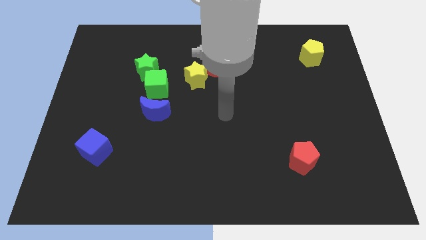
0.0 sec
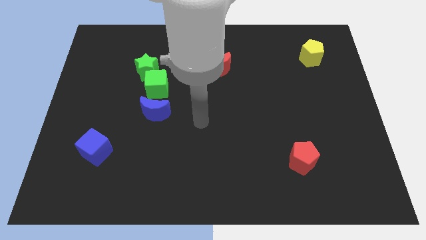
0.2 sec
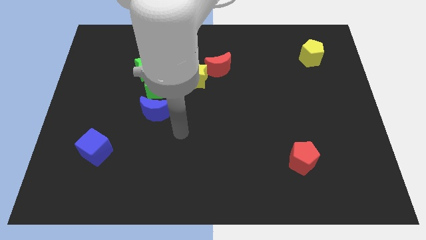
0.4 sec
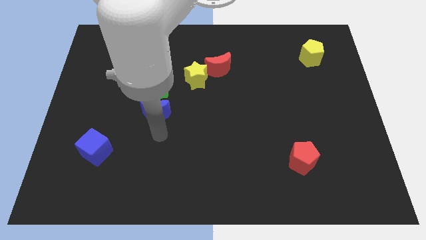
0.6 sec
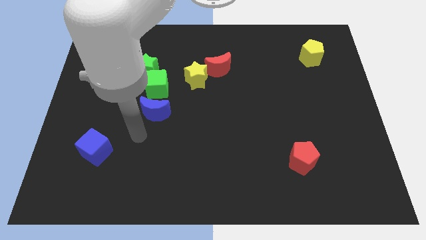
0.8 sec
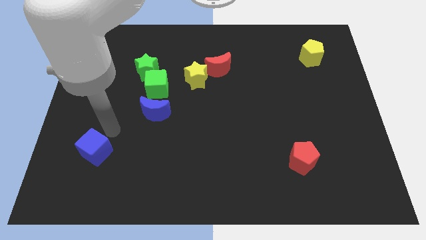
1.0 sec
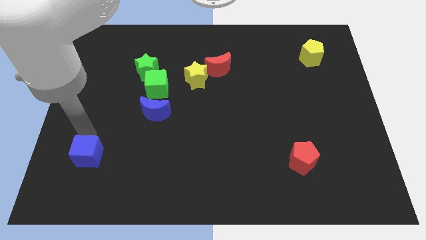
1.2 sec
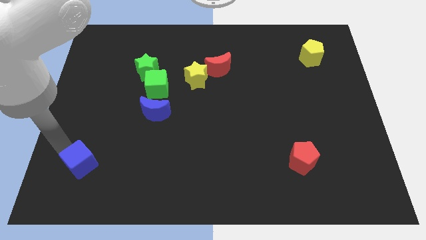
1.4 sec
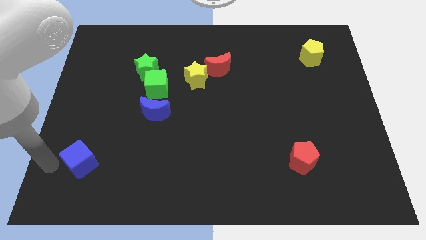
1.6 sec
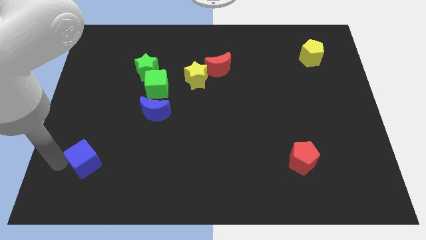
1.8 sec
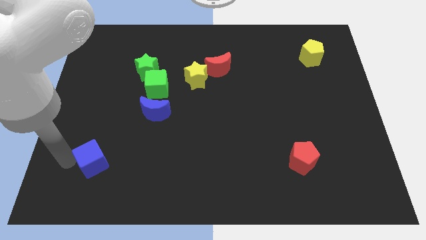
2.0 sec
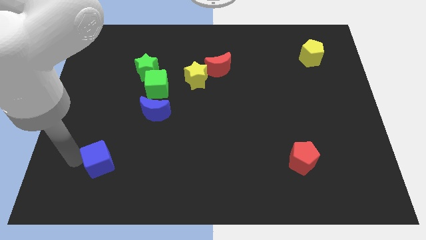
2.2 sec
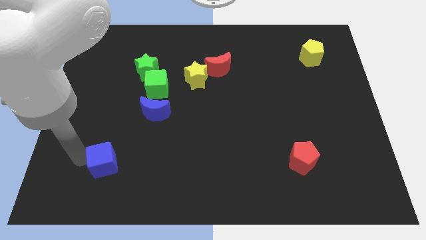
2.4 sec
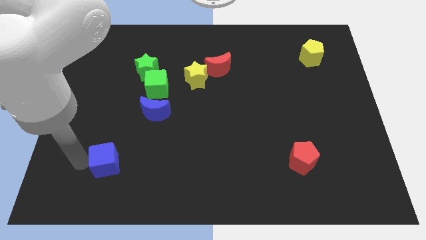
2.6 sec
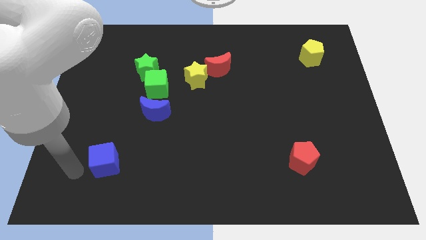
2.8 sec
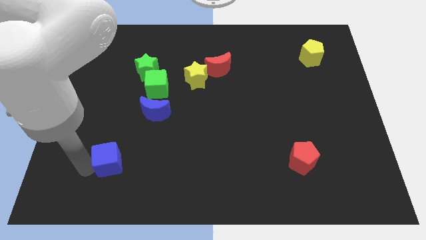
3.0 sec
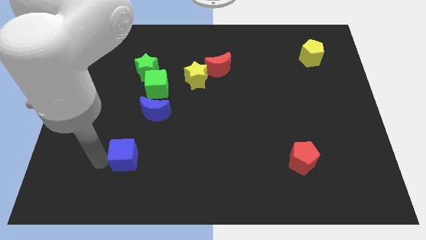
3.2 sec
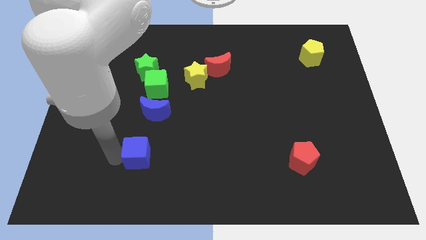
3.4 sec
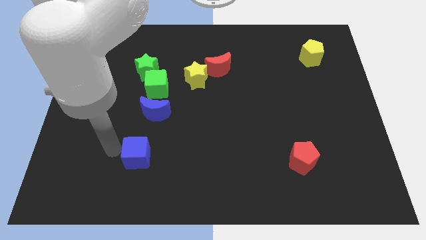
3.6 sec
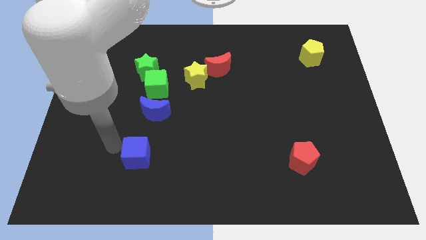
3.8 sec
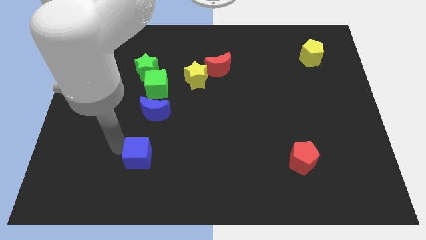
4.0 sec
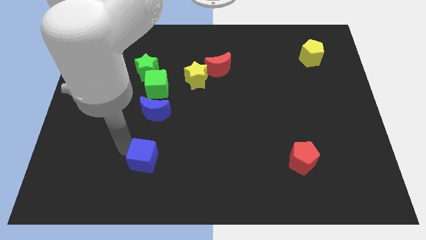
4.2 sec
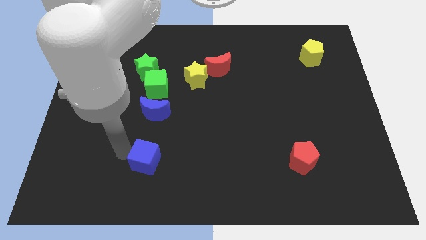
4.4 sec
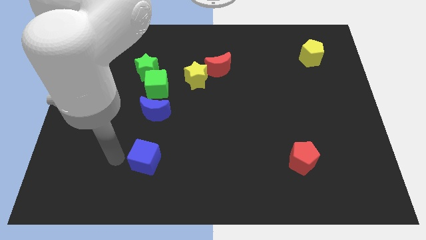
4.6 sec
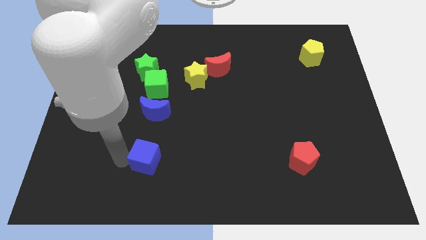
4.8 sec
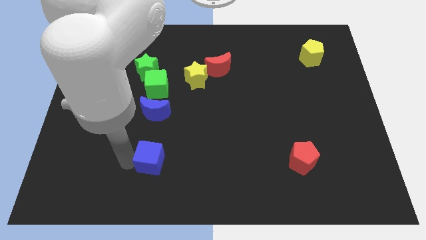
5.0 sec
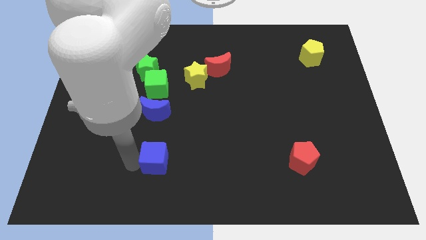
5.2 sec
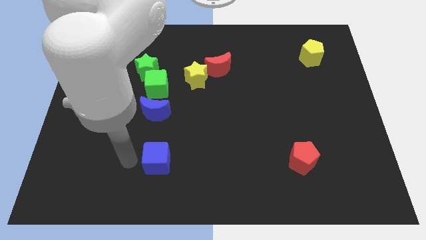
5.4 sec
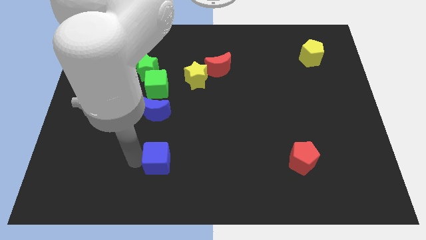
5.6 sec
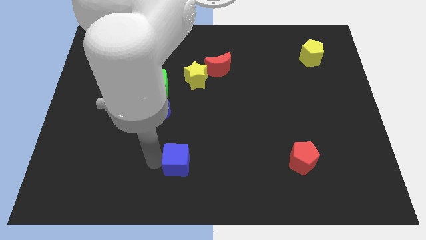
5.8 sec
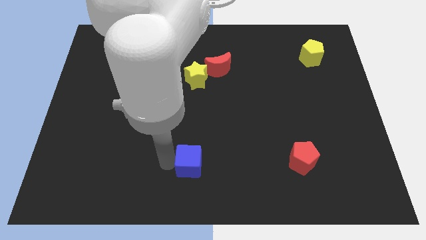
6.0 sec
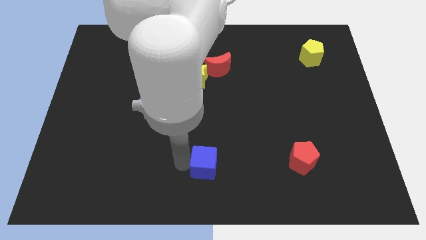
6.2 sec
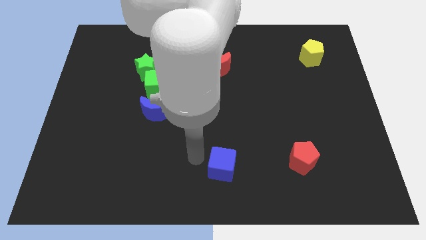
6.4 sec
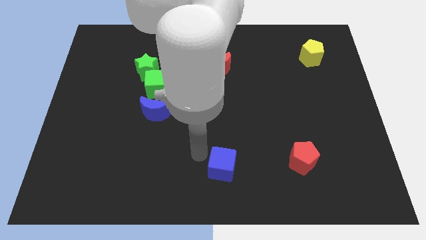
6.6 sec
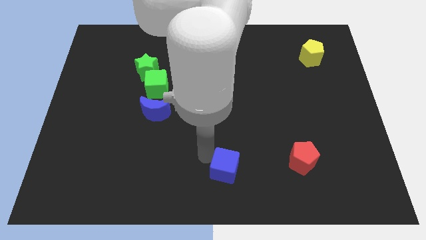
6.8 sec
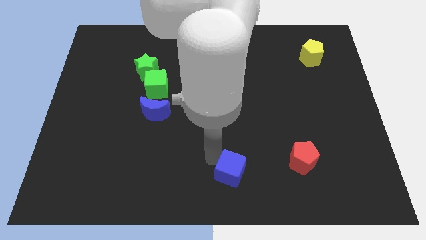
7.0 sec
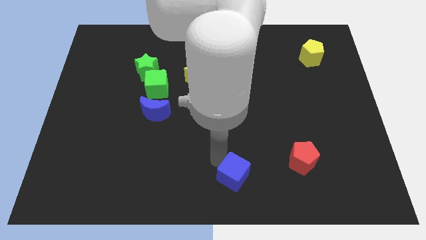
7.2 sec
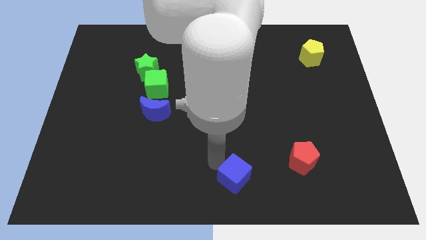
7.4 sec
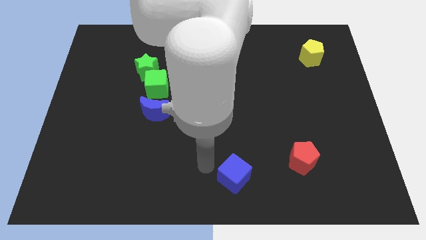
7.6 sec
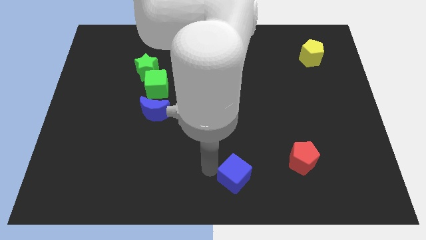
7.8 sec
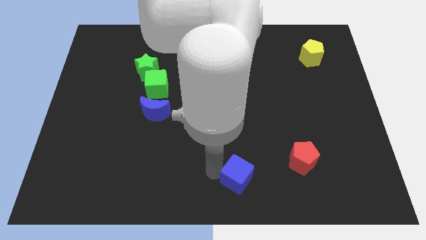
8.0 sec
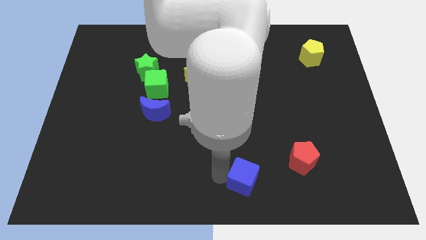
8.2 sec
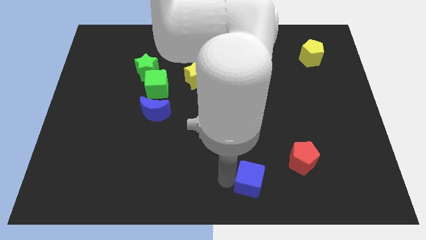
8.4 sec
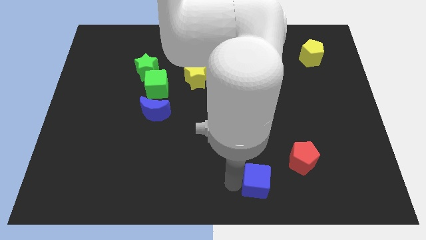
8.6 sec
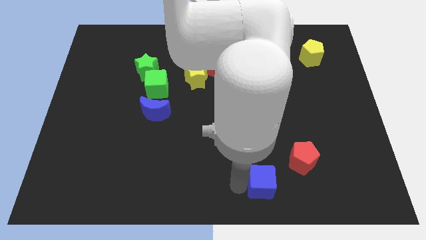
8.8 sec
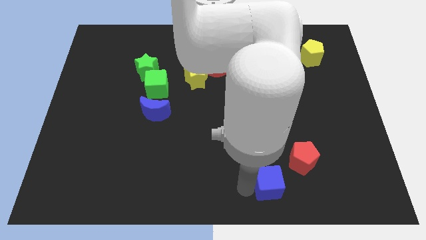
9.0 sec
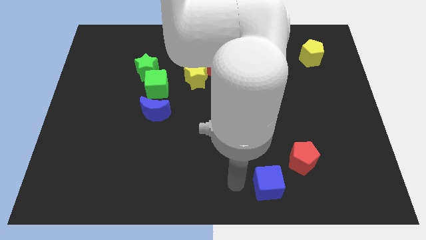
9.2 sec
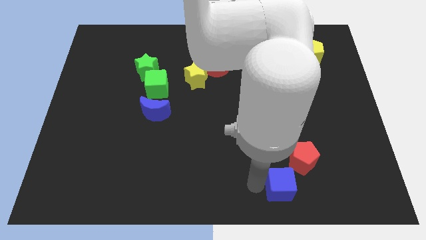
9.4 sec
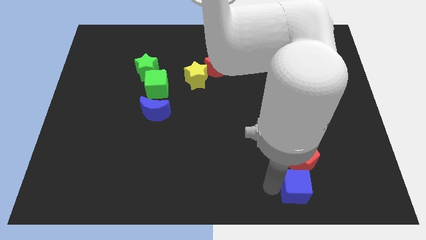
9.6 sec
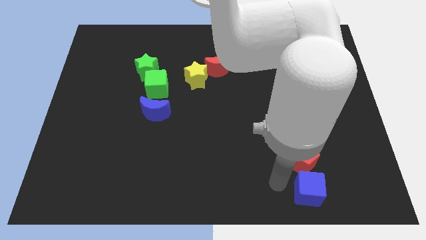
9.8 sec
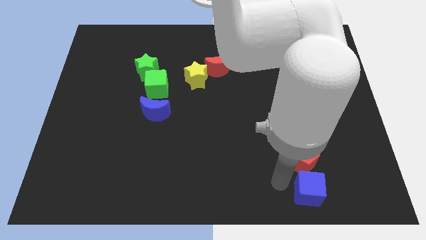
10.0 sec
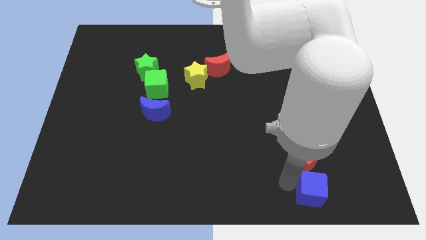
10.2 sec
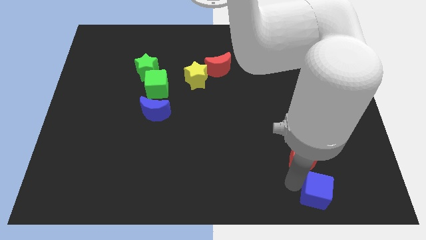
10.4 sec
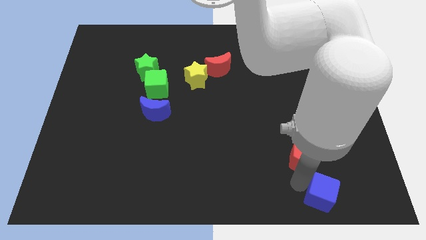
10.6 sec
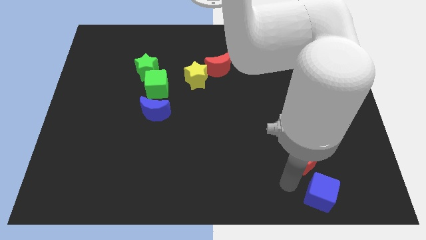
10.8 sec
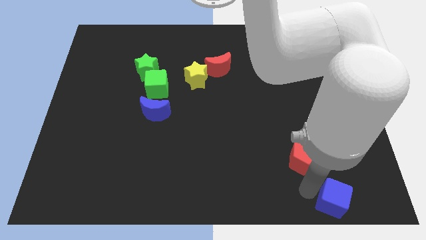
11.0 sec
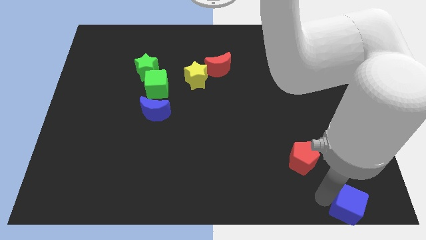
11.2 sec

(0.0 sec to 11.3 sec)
slide the blue cube to the bottom right

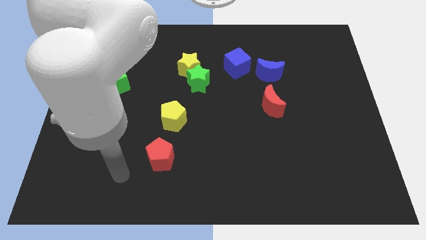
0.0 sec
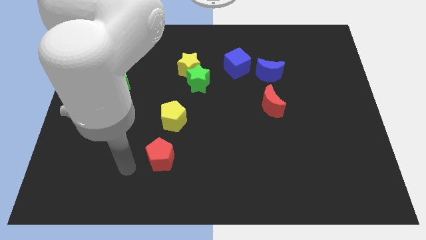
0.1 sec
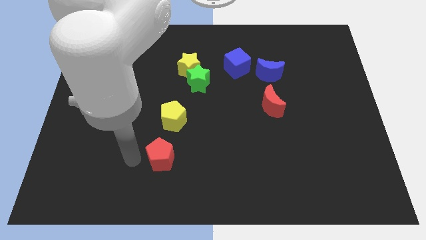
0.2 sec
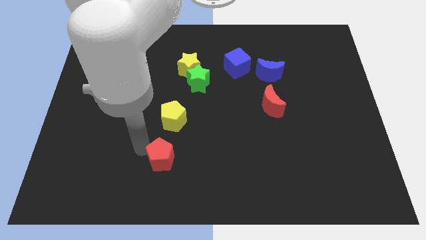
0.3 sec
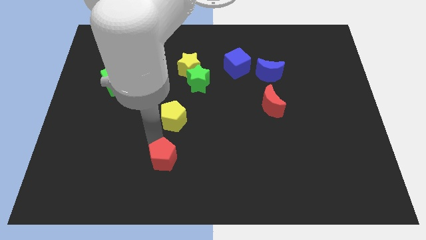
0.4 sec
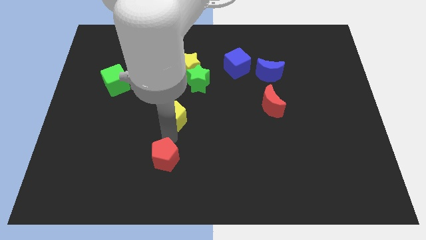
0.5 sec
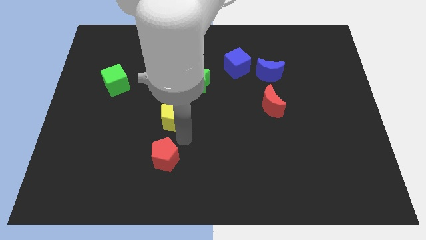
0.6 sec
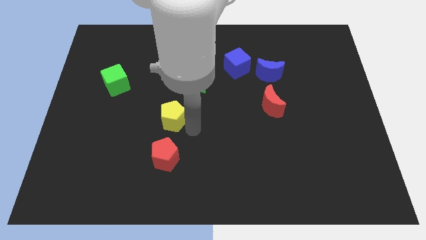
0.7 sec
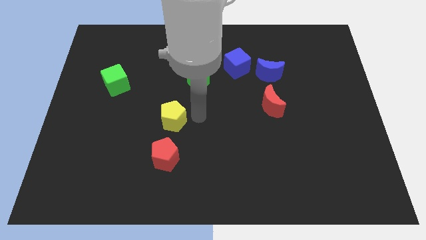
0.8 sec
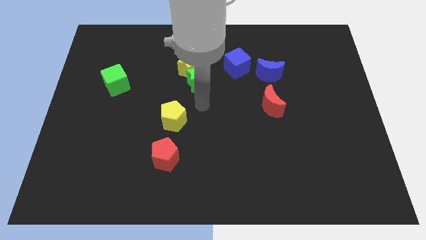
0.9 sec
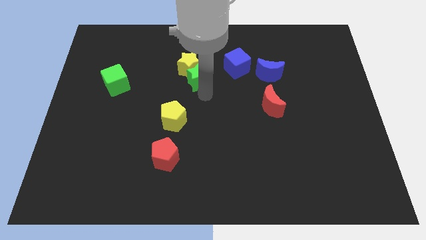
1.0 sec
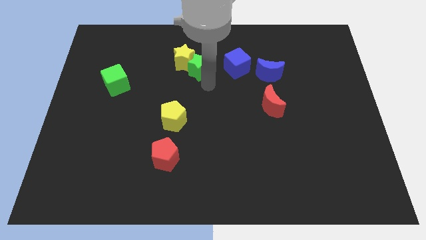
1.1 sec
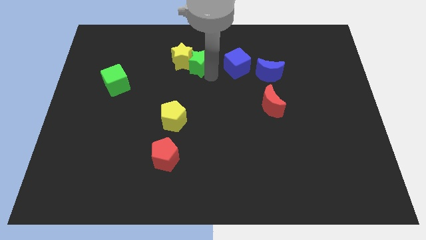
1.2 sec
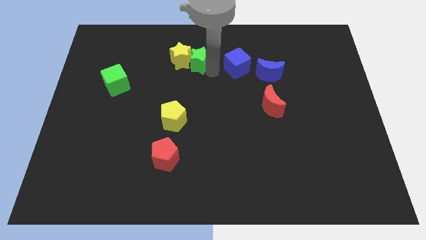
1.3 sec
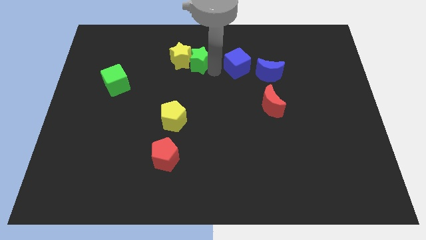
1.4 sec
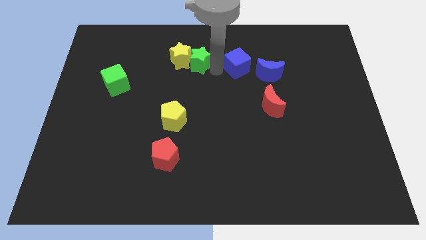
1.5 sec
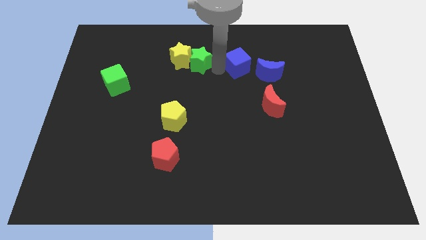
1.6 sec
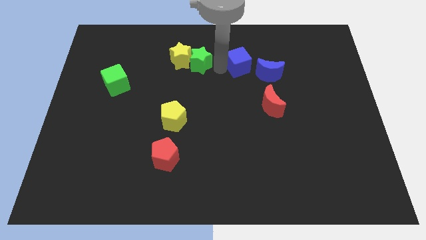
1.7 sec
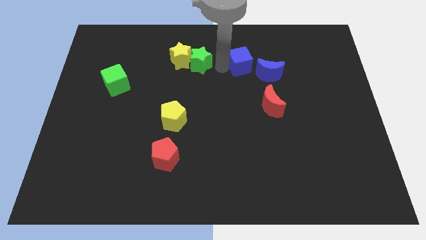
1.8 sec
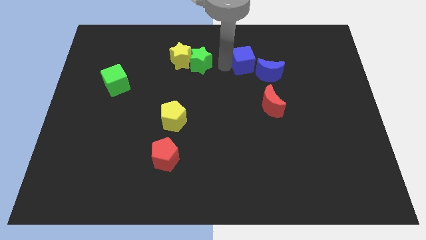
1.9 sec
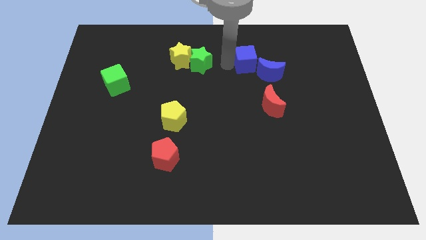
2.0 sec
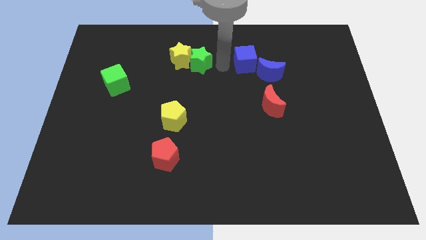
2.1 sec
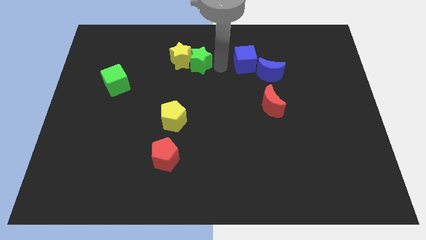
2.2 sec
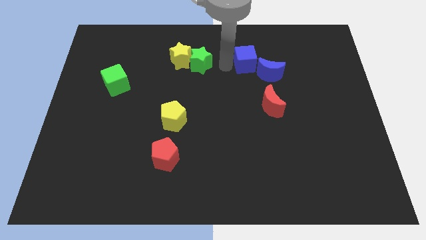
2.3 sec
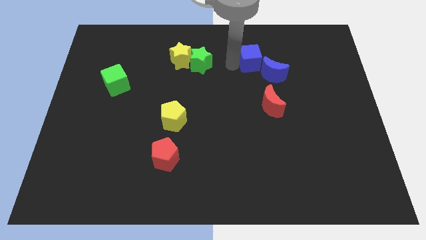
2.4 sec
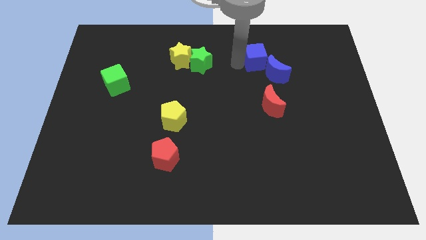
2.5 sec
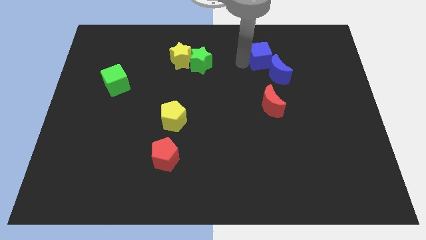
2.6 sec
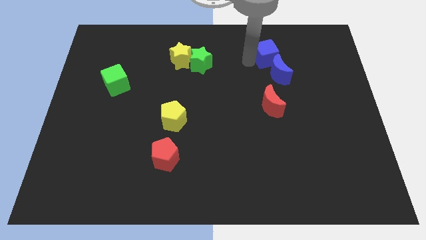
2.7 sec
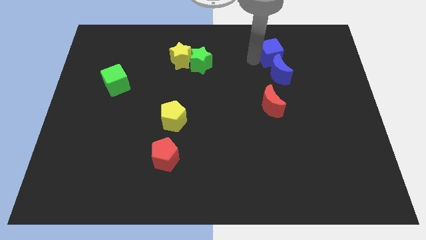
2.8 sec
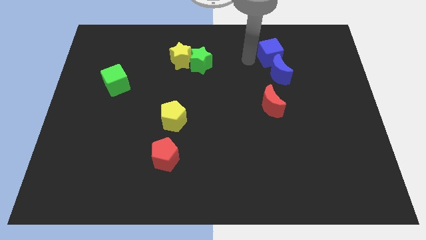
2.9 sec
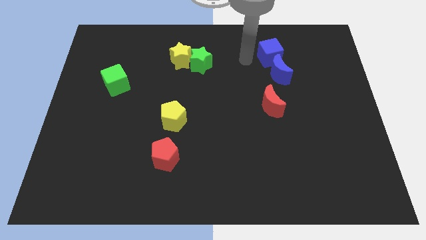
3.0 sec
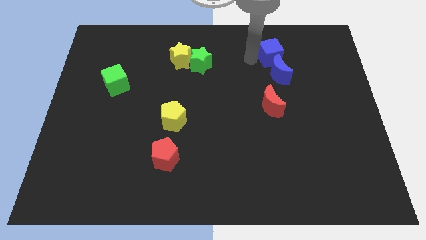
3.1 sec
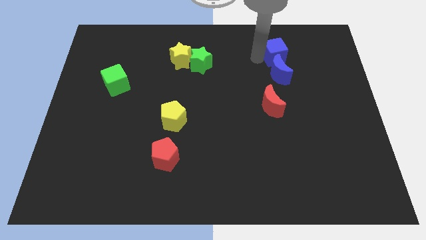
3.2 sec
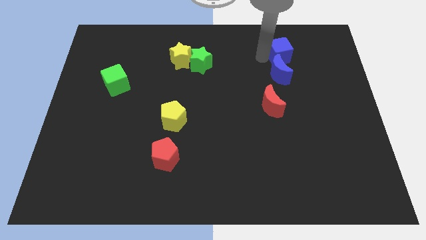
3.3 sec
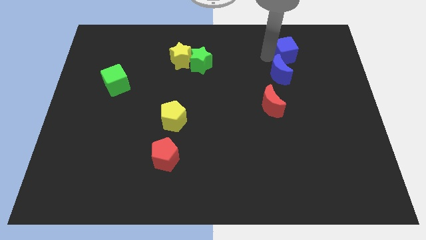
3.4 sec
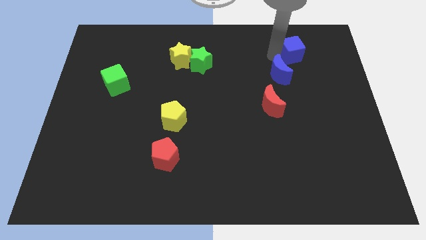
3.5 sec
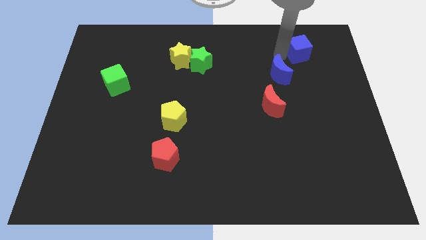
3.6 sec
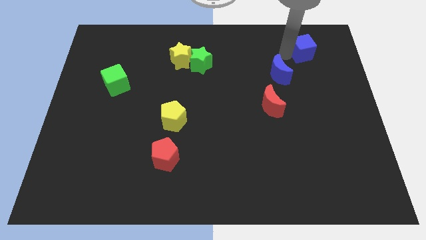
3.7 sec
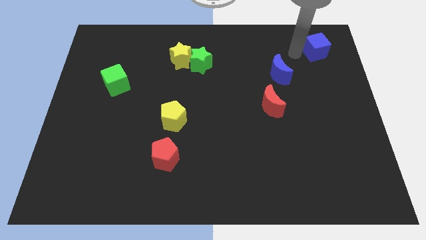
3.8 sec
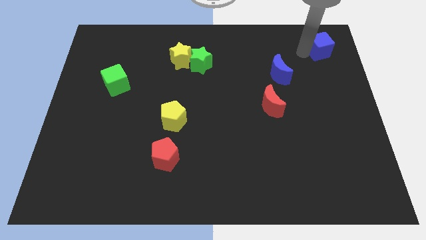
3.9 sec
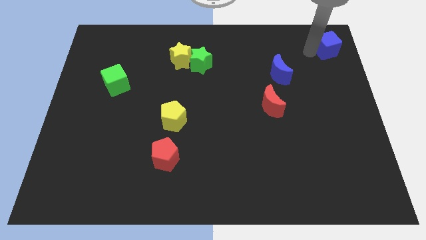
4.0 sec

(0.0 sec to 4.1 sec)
slide the blue cube to the top right
